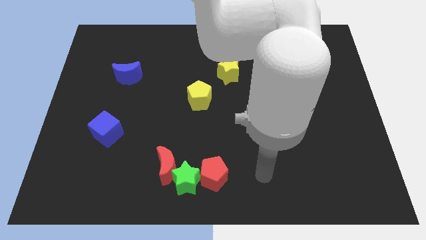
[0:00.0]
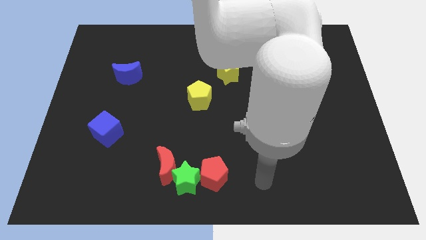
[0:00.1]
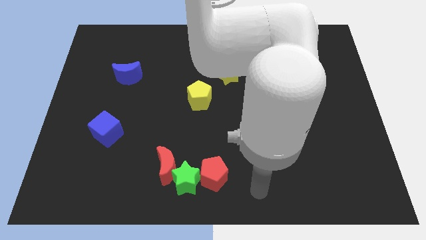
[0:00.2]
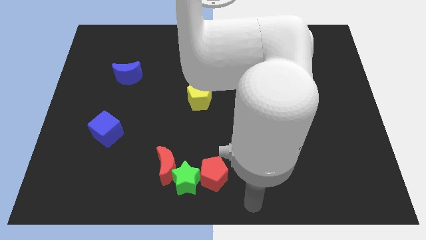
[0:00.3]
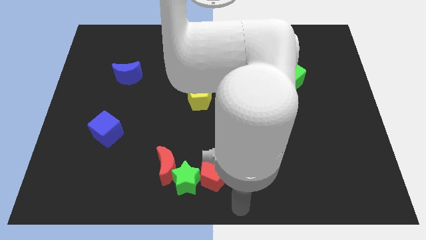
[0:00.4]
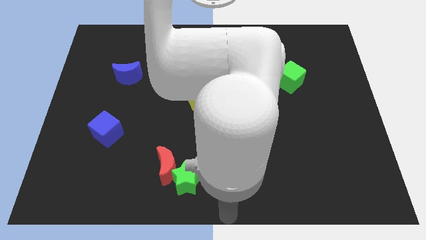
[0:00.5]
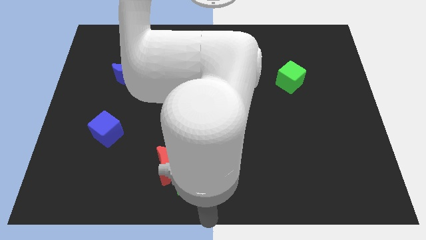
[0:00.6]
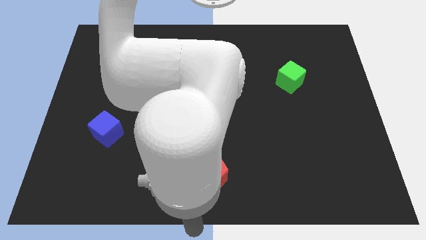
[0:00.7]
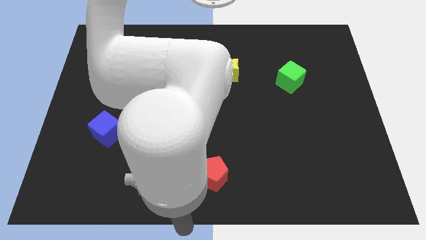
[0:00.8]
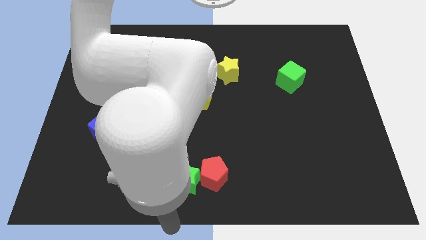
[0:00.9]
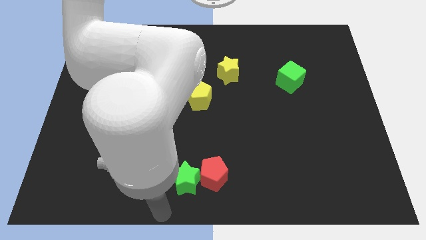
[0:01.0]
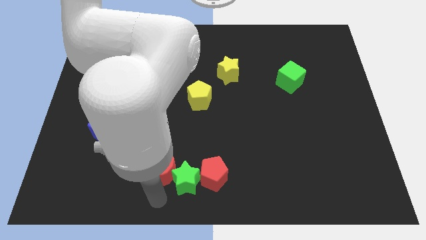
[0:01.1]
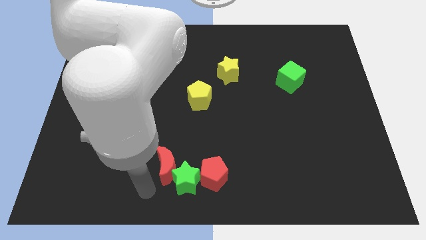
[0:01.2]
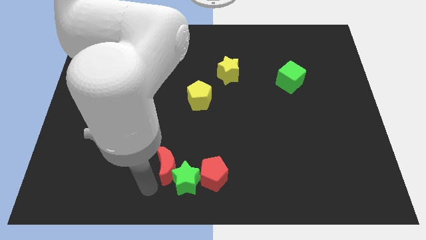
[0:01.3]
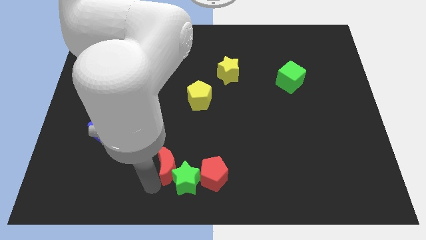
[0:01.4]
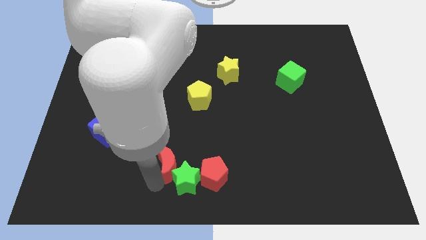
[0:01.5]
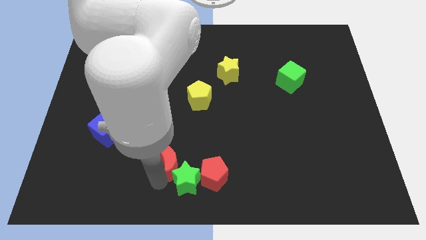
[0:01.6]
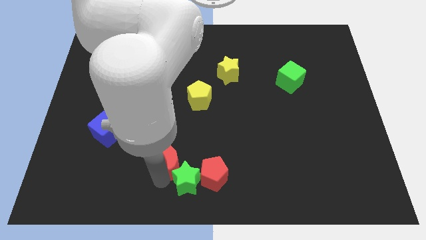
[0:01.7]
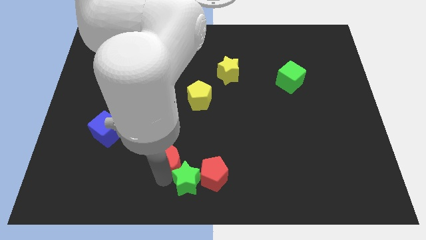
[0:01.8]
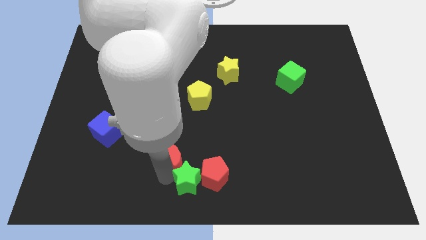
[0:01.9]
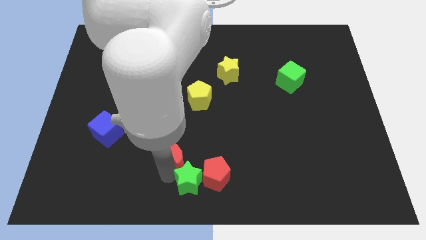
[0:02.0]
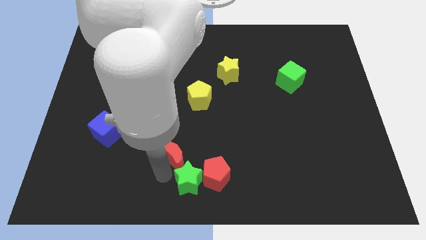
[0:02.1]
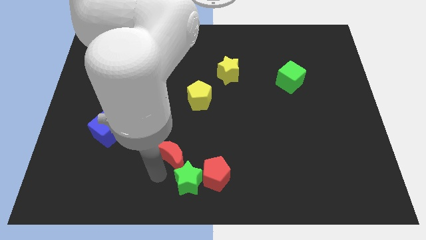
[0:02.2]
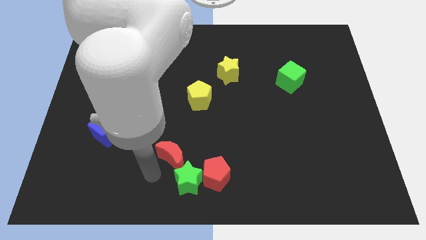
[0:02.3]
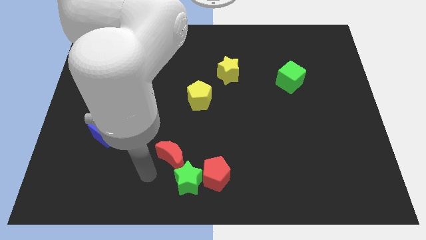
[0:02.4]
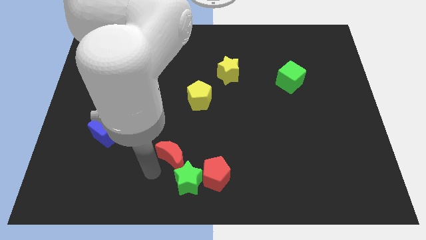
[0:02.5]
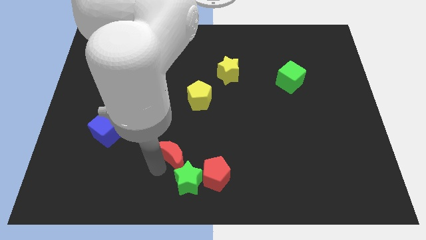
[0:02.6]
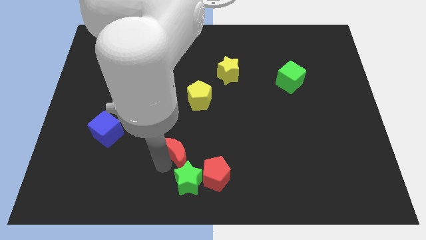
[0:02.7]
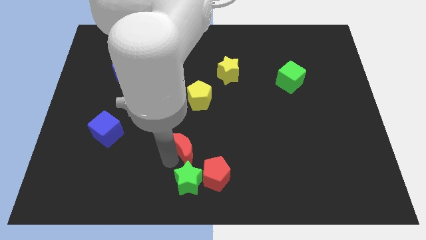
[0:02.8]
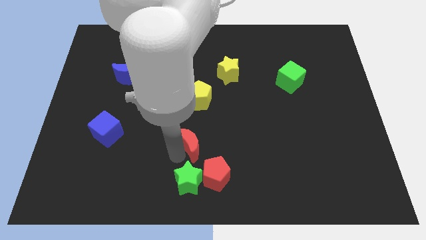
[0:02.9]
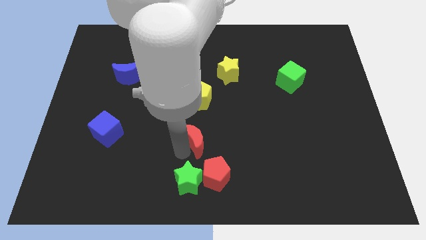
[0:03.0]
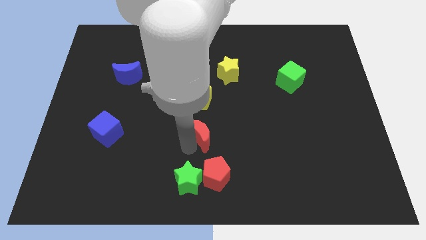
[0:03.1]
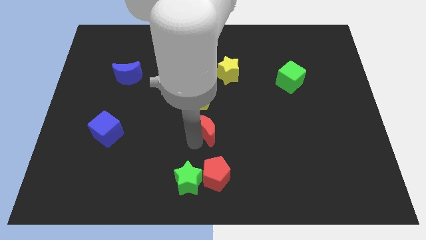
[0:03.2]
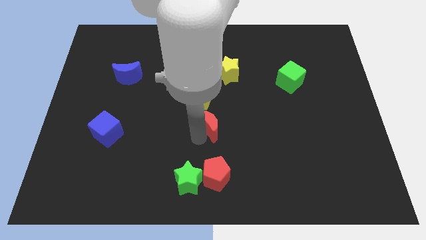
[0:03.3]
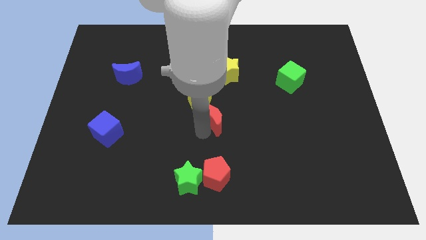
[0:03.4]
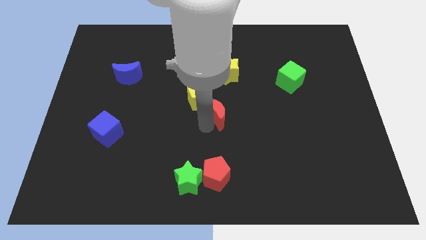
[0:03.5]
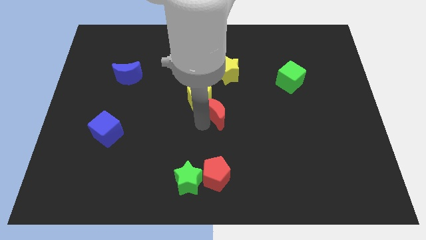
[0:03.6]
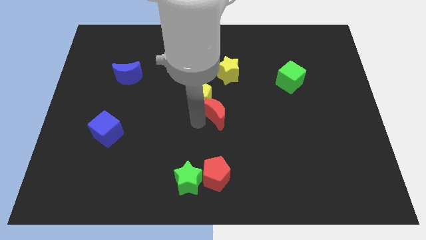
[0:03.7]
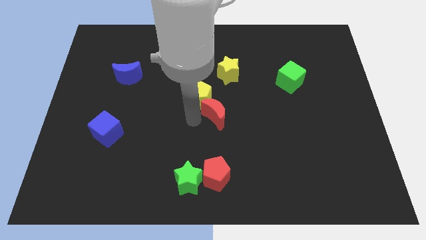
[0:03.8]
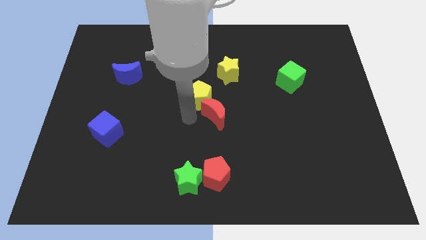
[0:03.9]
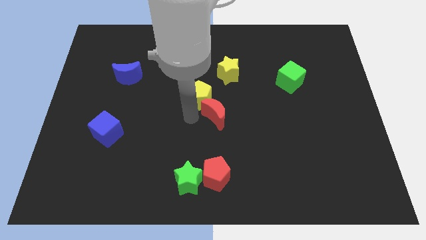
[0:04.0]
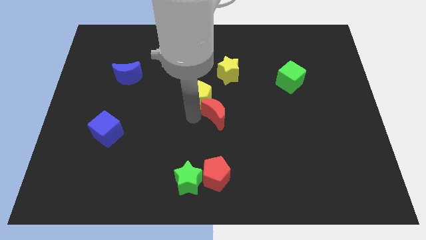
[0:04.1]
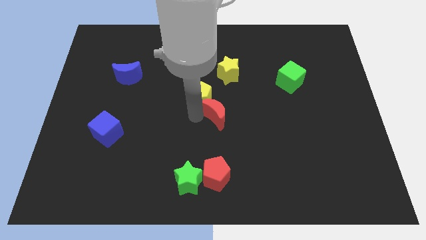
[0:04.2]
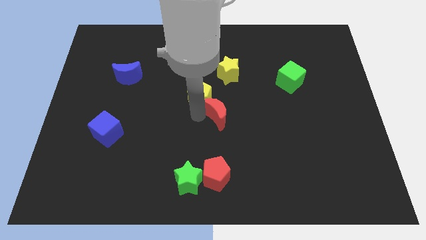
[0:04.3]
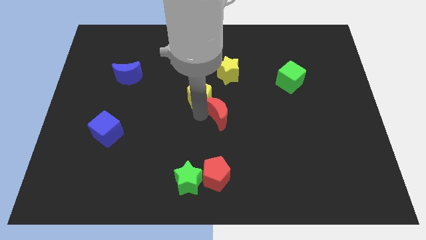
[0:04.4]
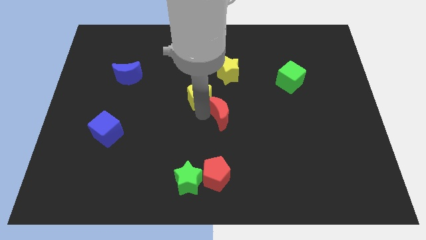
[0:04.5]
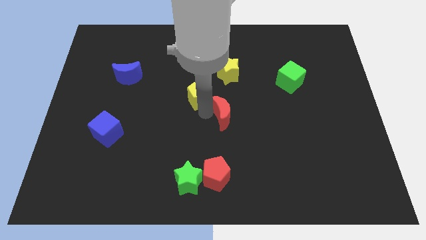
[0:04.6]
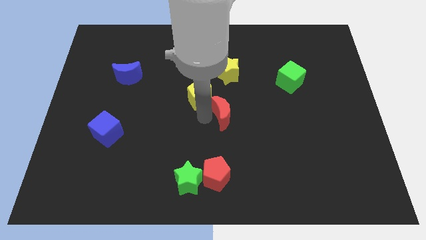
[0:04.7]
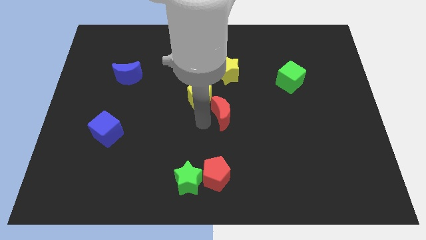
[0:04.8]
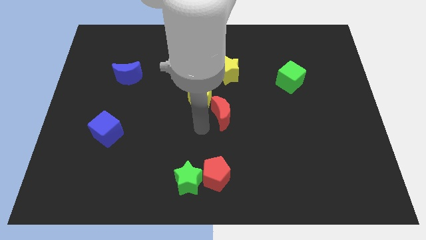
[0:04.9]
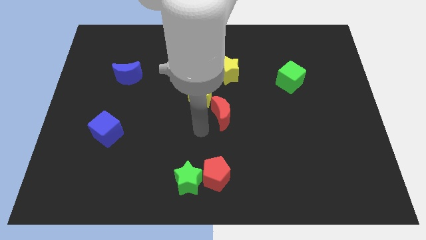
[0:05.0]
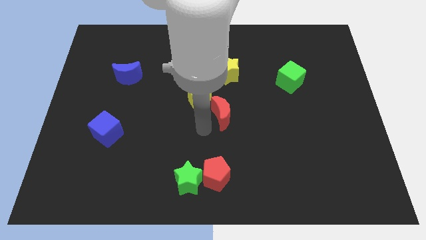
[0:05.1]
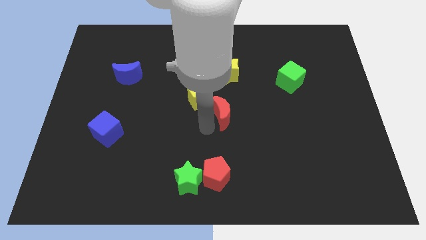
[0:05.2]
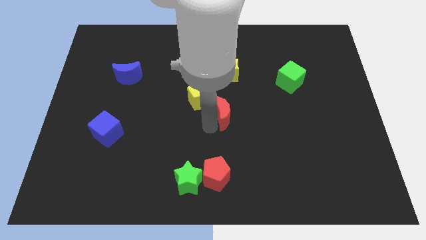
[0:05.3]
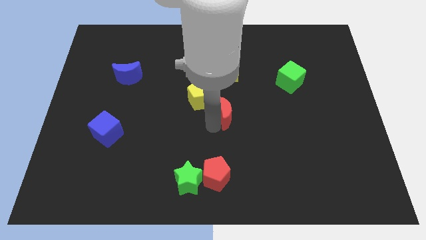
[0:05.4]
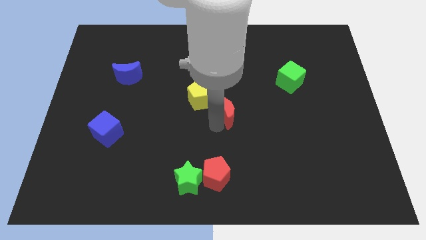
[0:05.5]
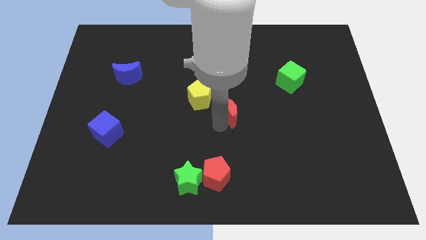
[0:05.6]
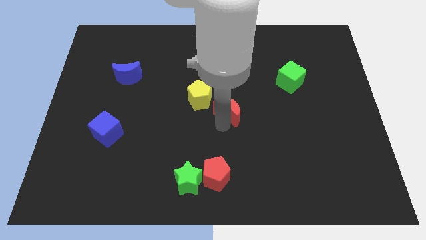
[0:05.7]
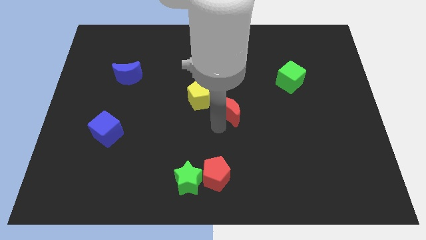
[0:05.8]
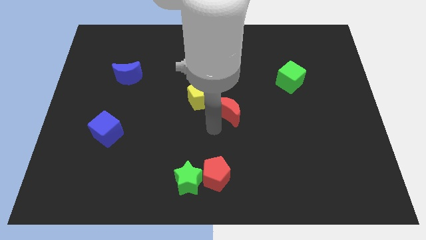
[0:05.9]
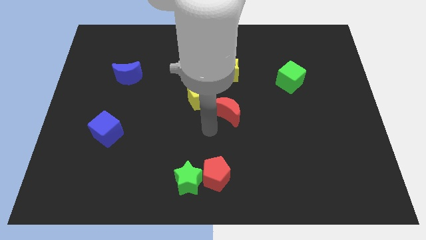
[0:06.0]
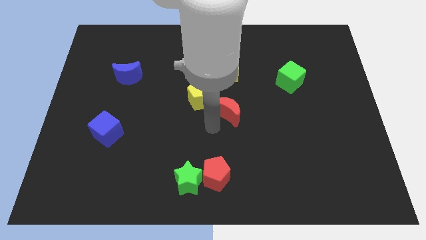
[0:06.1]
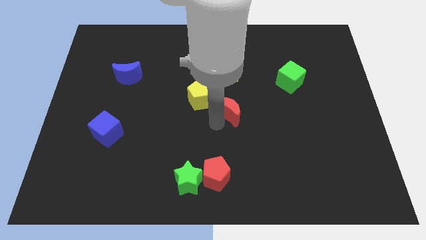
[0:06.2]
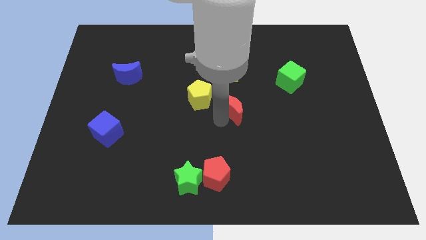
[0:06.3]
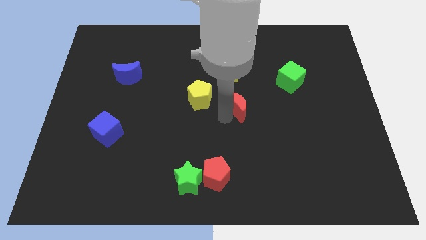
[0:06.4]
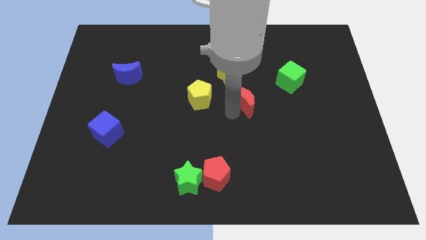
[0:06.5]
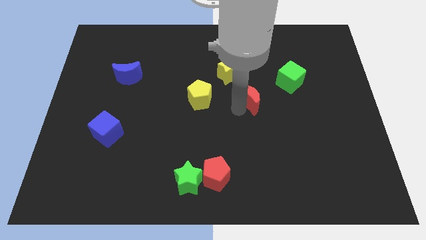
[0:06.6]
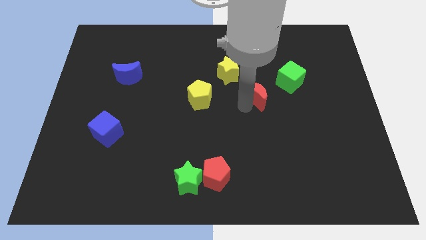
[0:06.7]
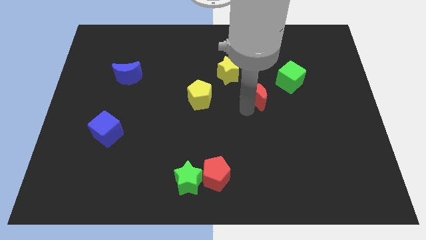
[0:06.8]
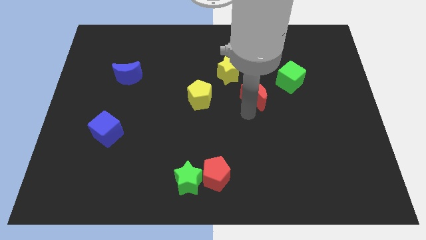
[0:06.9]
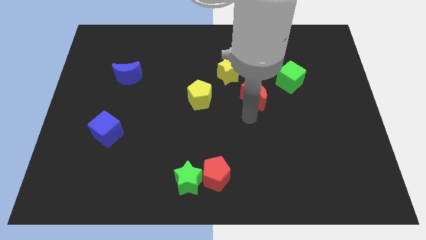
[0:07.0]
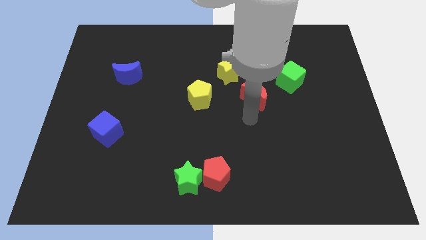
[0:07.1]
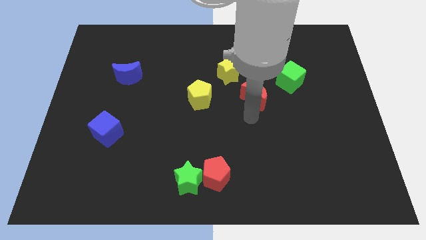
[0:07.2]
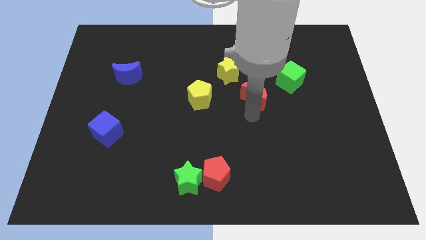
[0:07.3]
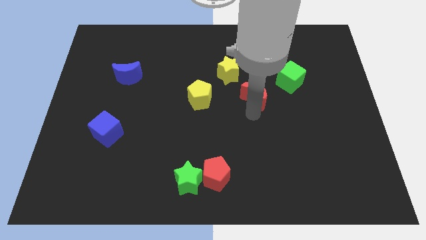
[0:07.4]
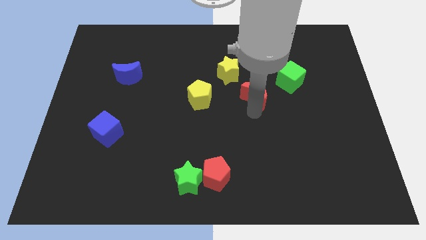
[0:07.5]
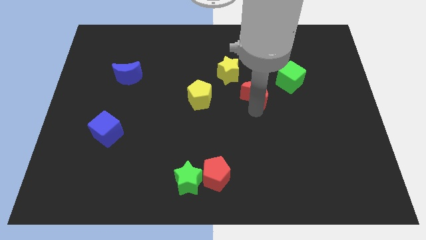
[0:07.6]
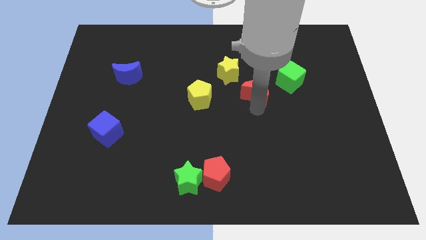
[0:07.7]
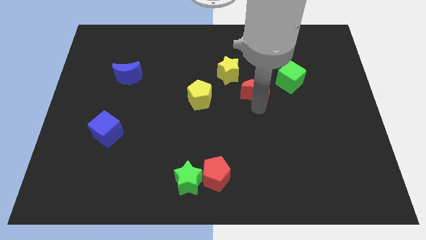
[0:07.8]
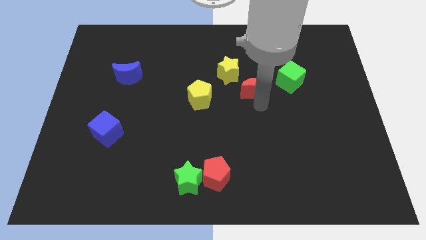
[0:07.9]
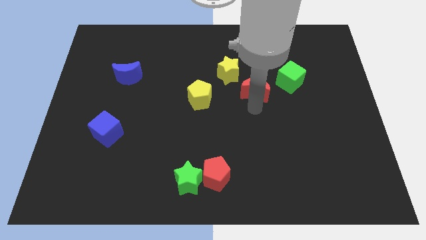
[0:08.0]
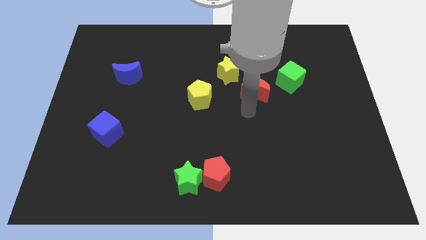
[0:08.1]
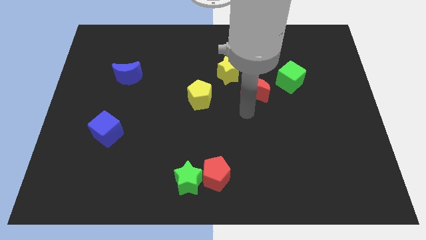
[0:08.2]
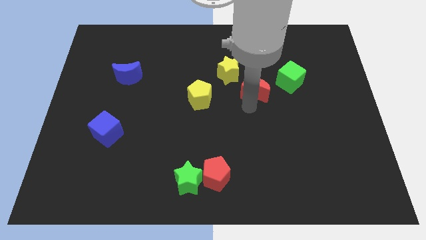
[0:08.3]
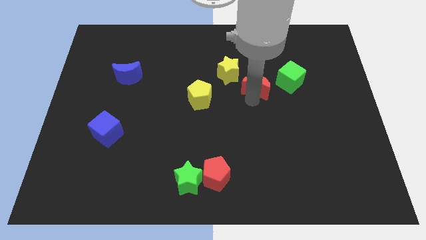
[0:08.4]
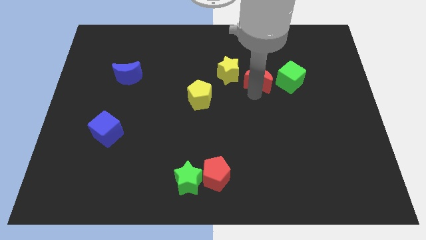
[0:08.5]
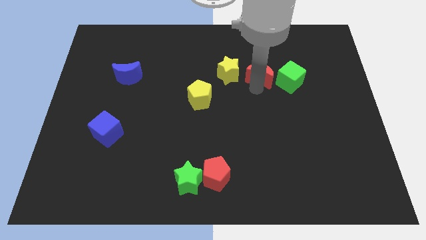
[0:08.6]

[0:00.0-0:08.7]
put the red moon diagonally up and to the left of the green cube
